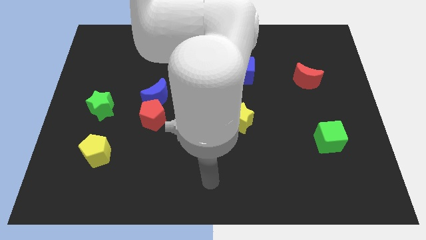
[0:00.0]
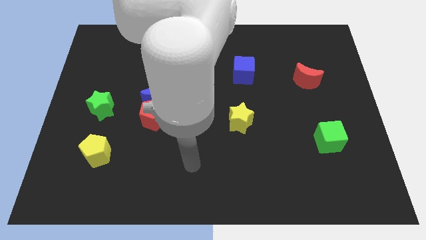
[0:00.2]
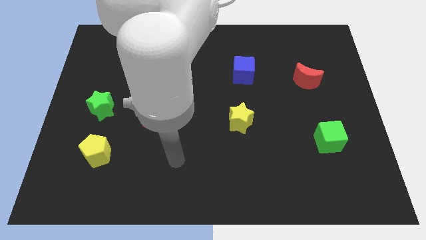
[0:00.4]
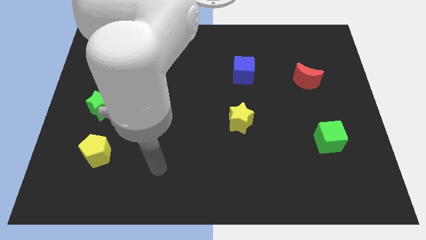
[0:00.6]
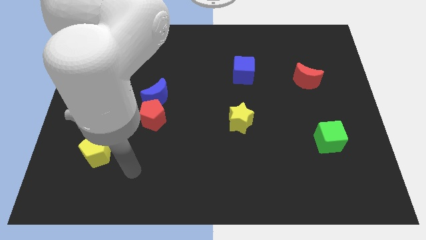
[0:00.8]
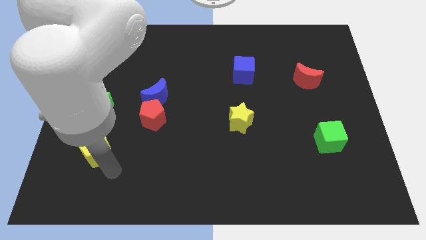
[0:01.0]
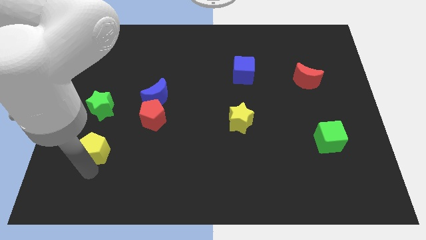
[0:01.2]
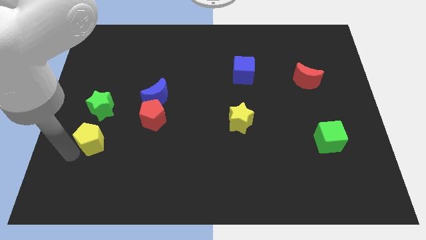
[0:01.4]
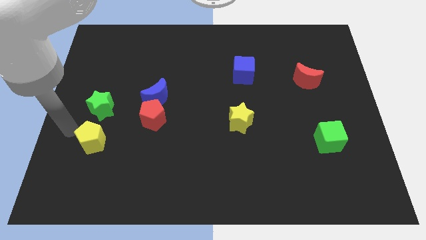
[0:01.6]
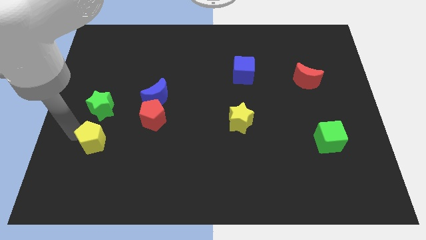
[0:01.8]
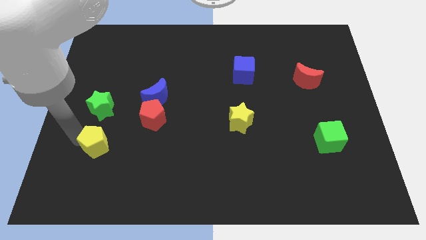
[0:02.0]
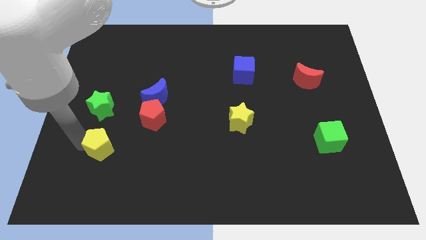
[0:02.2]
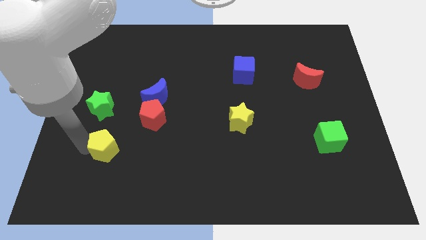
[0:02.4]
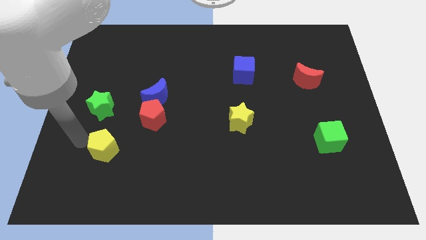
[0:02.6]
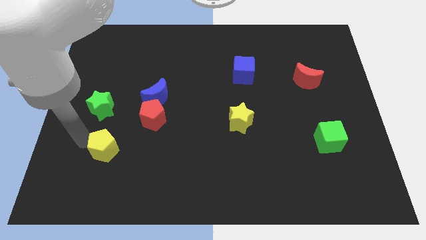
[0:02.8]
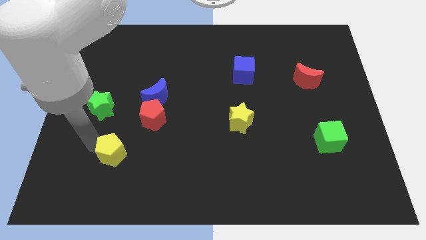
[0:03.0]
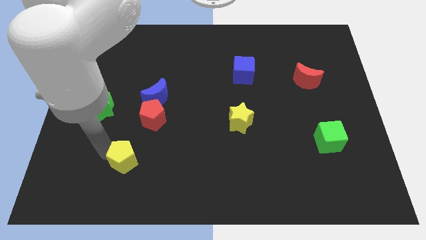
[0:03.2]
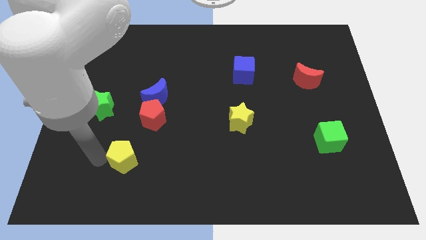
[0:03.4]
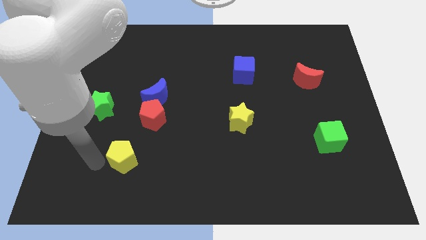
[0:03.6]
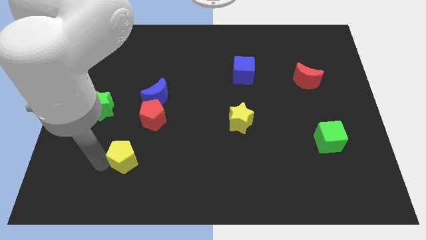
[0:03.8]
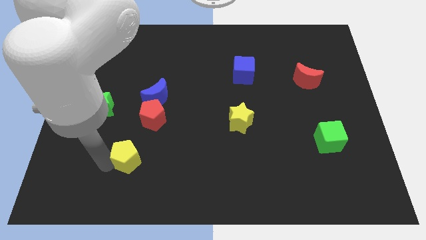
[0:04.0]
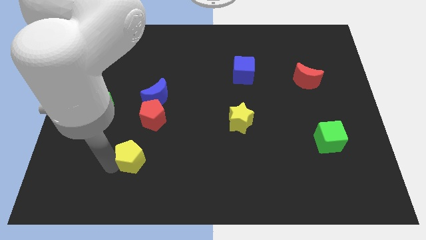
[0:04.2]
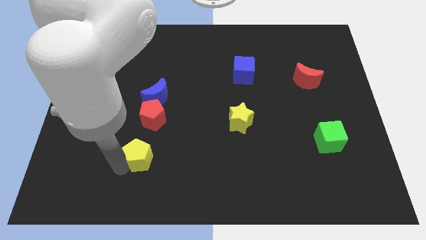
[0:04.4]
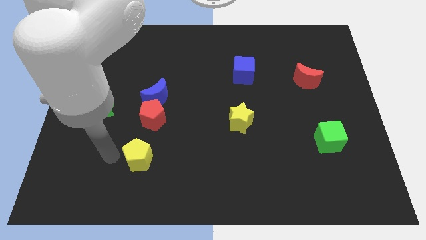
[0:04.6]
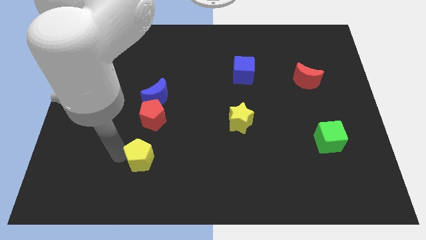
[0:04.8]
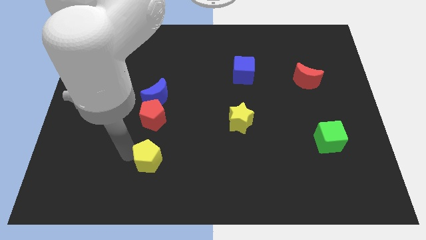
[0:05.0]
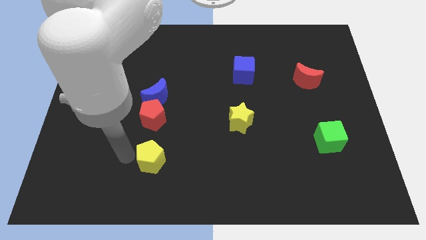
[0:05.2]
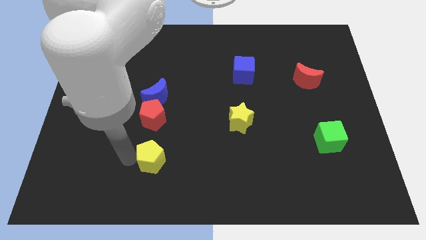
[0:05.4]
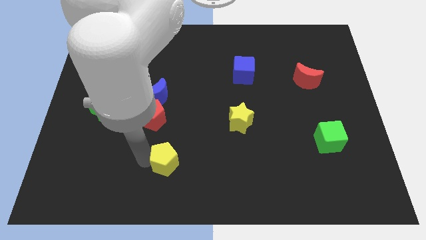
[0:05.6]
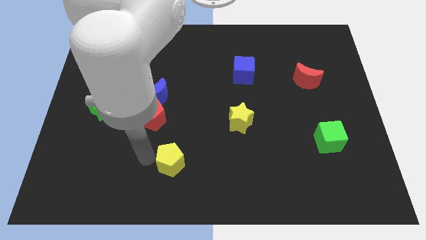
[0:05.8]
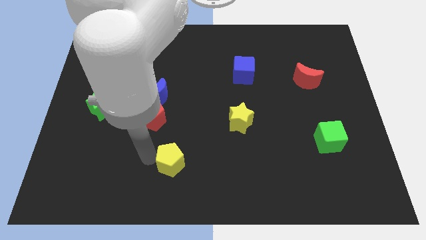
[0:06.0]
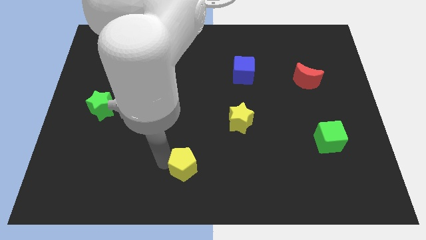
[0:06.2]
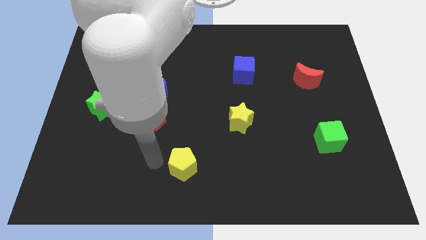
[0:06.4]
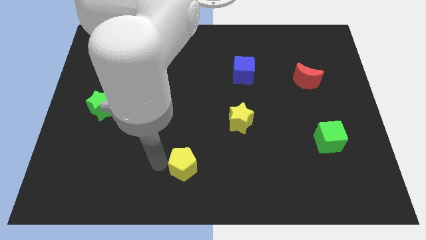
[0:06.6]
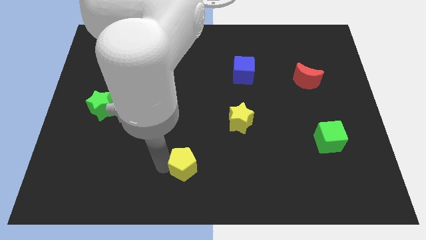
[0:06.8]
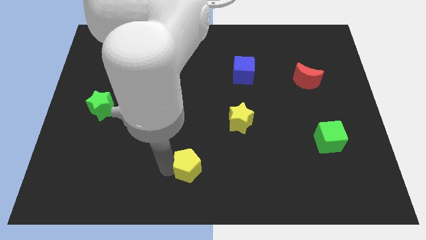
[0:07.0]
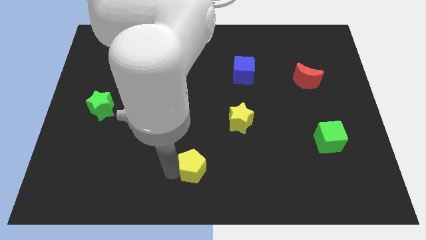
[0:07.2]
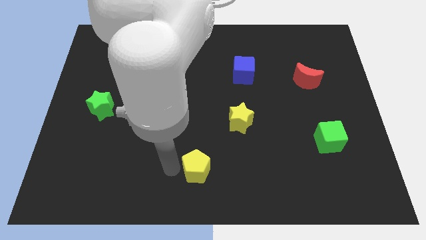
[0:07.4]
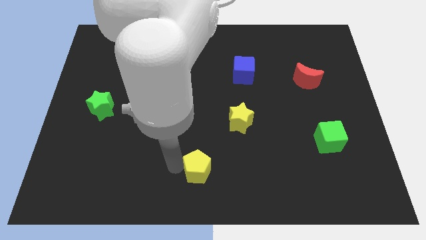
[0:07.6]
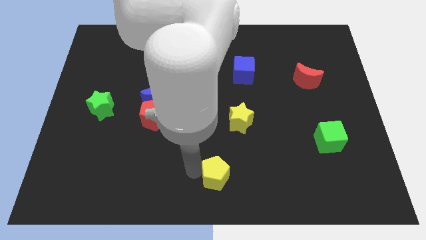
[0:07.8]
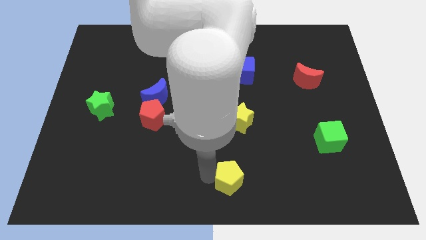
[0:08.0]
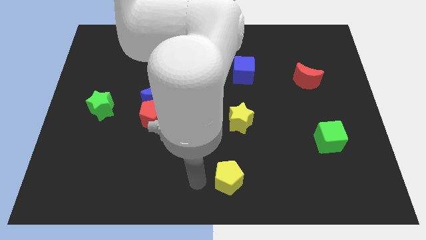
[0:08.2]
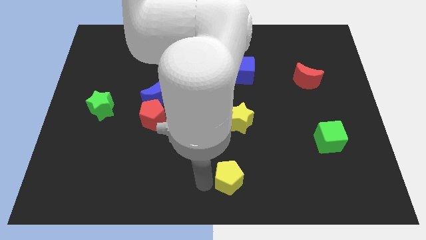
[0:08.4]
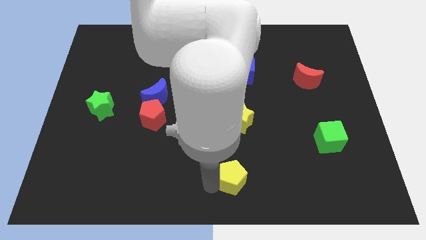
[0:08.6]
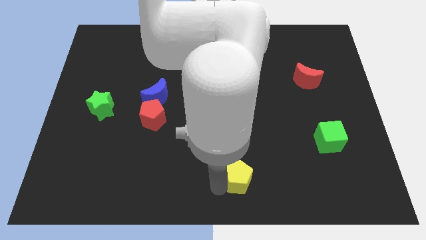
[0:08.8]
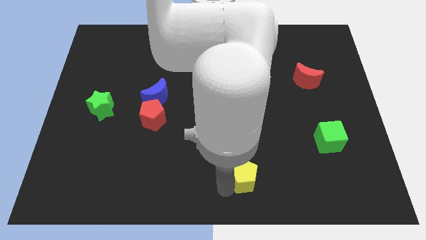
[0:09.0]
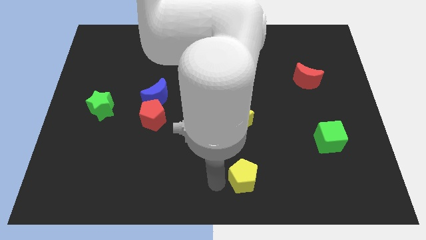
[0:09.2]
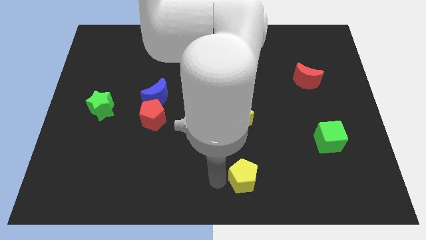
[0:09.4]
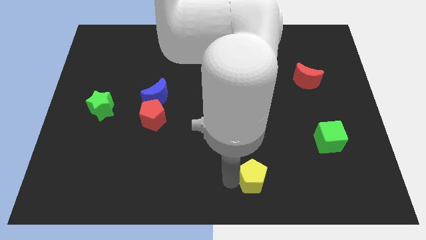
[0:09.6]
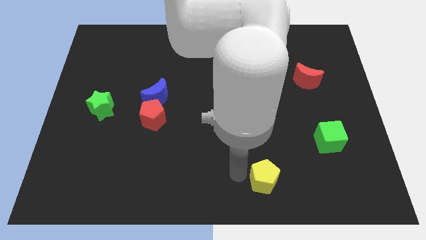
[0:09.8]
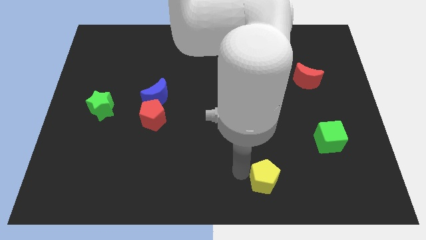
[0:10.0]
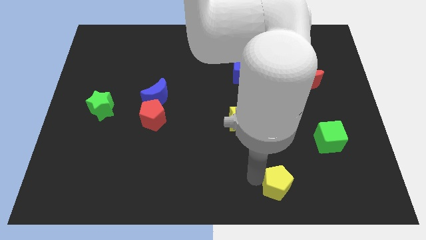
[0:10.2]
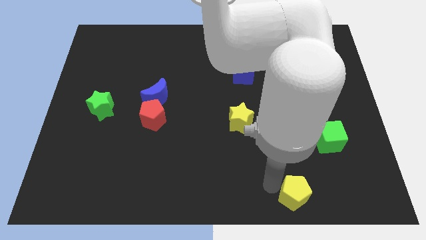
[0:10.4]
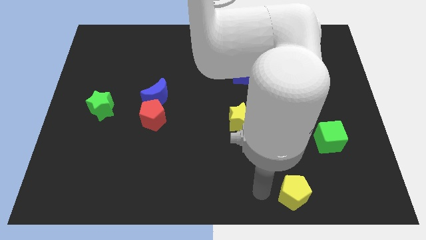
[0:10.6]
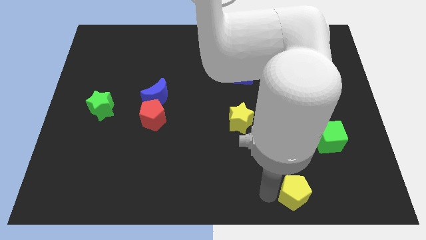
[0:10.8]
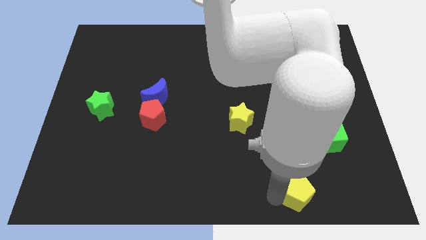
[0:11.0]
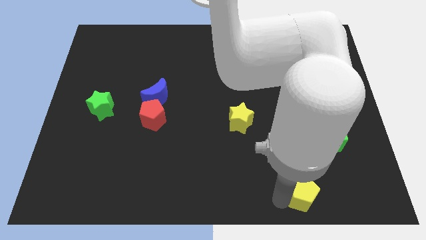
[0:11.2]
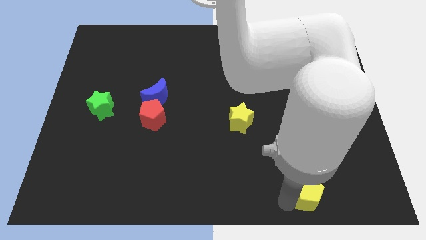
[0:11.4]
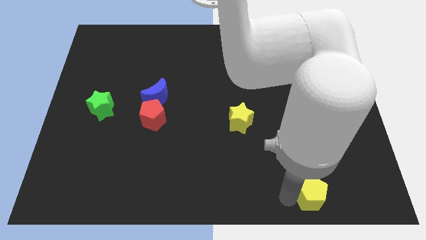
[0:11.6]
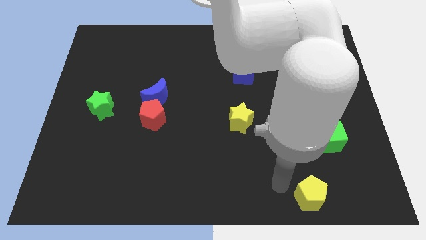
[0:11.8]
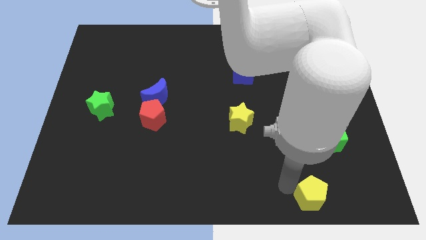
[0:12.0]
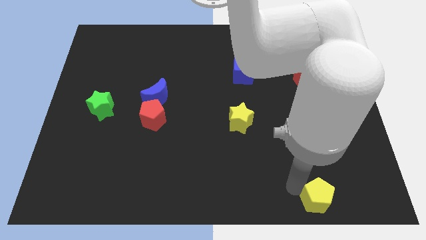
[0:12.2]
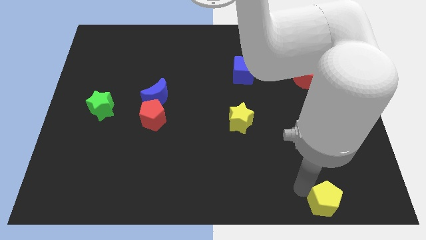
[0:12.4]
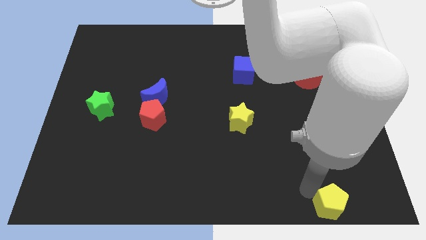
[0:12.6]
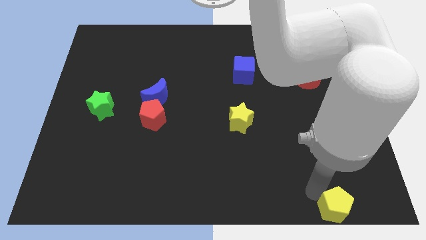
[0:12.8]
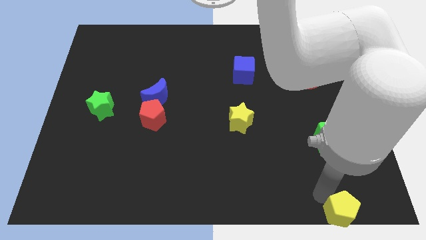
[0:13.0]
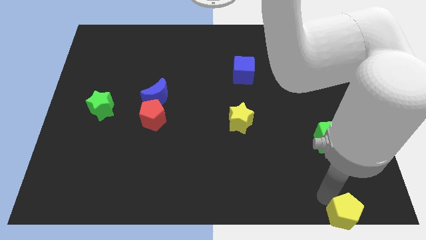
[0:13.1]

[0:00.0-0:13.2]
put the yellow pentagon to the lower right corner

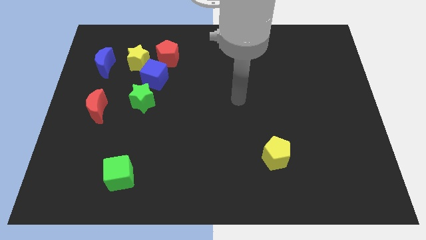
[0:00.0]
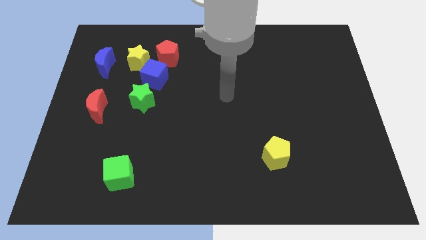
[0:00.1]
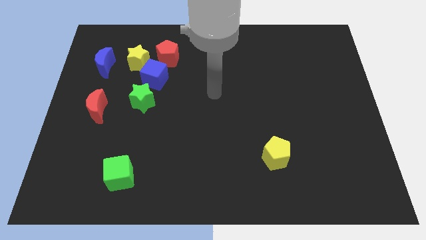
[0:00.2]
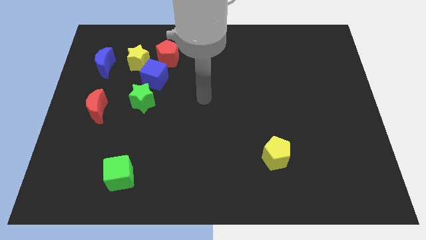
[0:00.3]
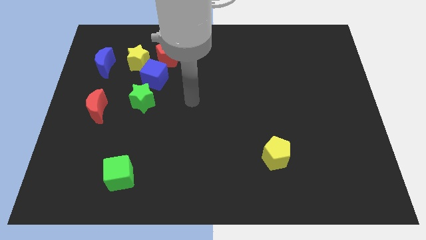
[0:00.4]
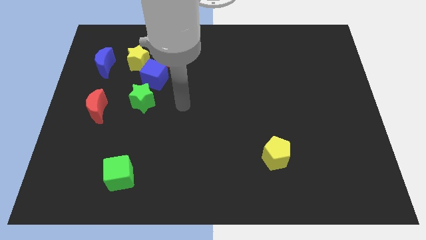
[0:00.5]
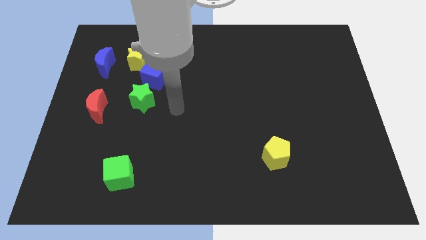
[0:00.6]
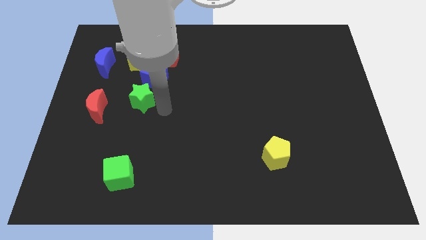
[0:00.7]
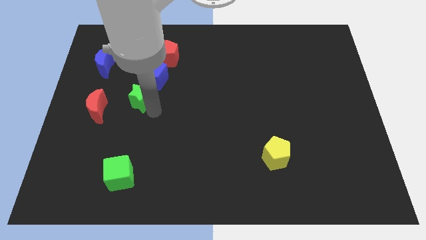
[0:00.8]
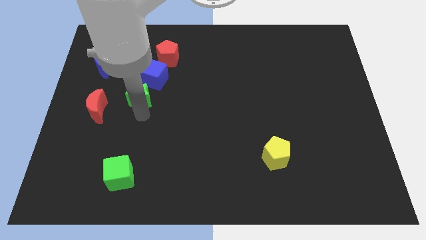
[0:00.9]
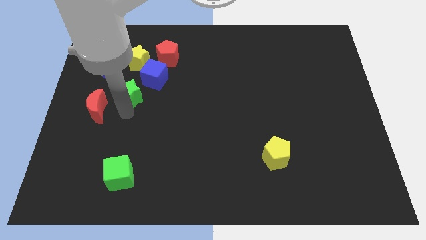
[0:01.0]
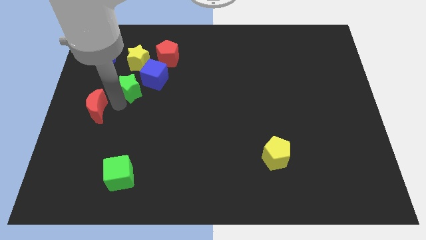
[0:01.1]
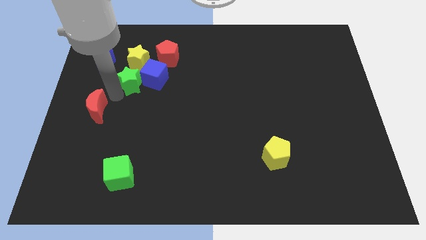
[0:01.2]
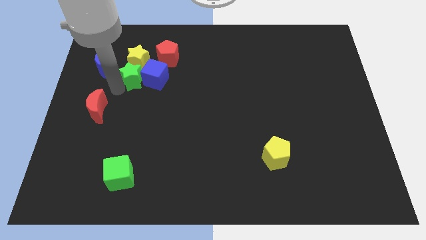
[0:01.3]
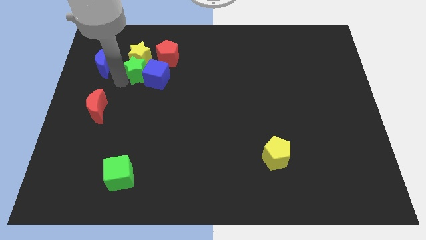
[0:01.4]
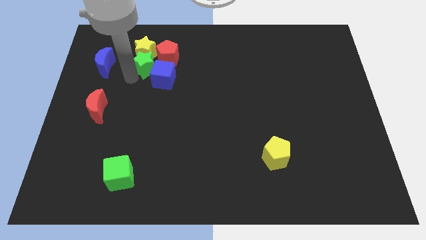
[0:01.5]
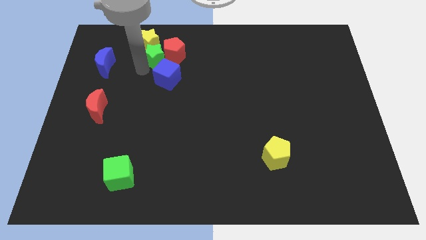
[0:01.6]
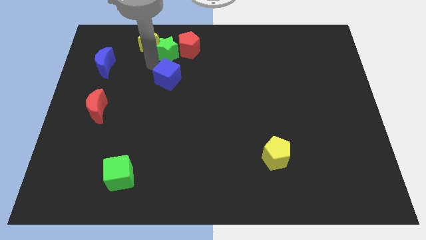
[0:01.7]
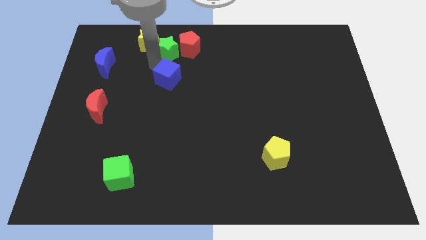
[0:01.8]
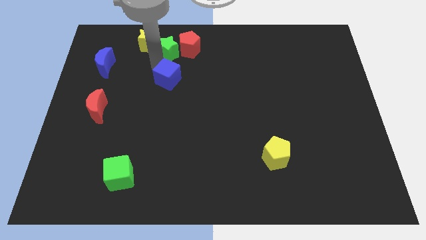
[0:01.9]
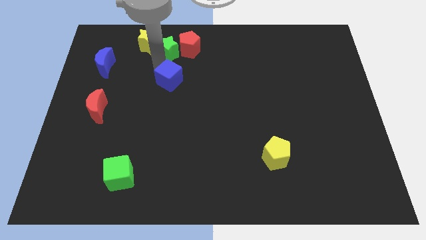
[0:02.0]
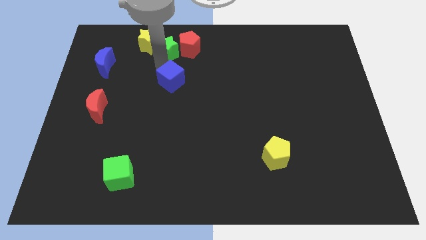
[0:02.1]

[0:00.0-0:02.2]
push the blue cube to the middle
